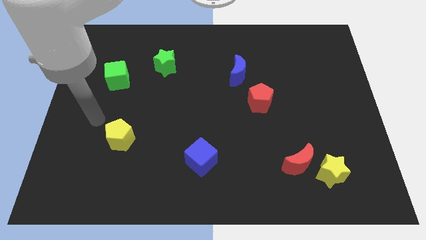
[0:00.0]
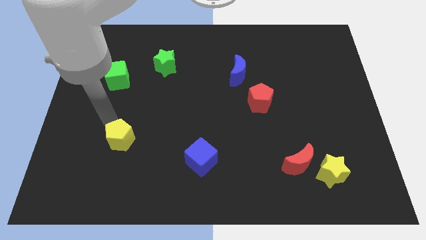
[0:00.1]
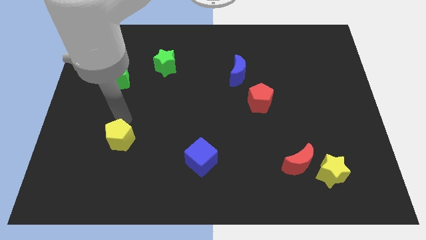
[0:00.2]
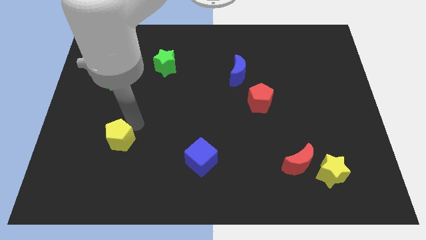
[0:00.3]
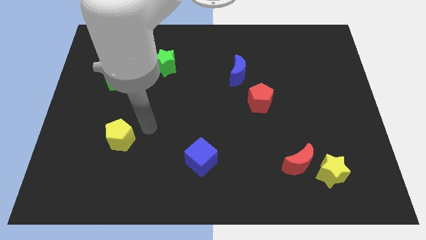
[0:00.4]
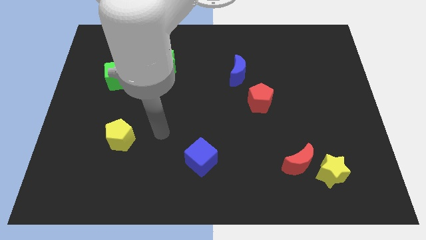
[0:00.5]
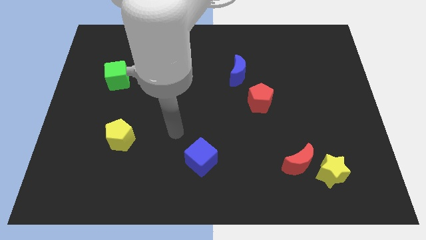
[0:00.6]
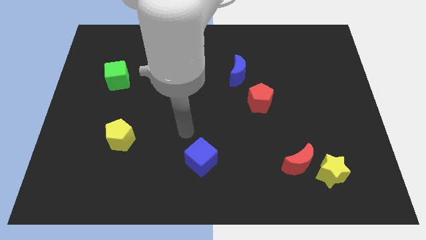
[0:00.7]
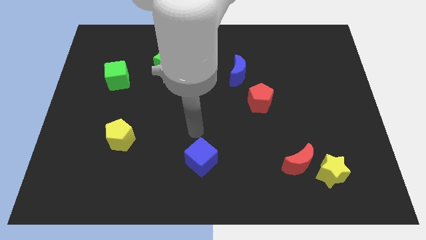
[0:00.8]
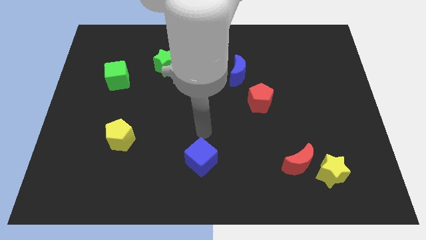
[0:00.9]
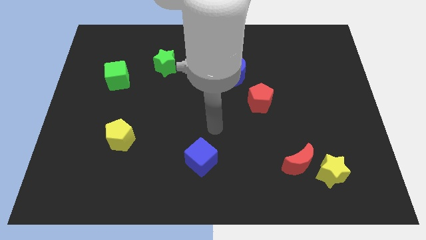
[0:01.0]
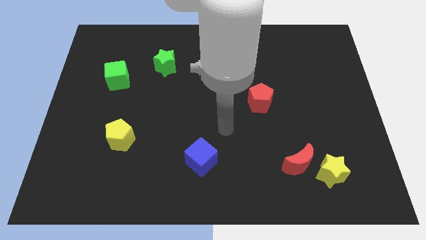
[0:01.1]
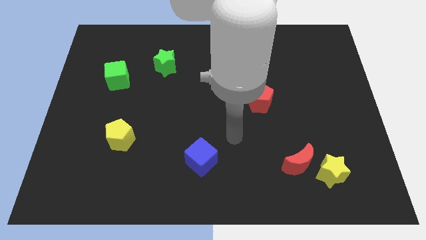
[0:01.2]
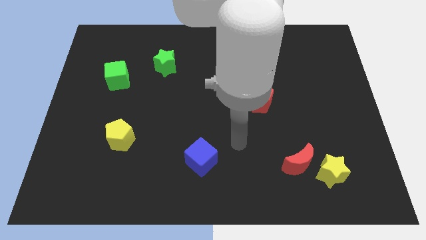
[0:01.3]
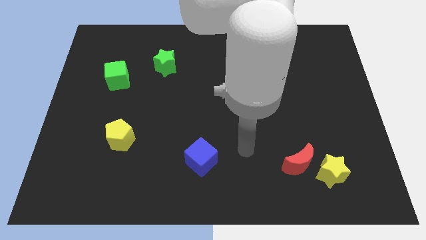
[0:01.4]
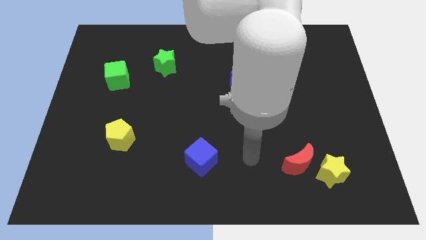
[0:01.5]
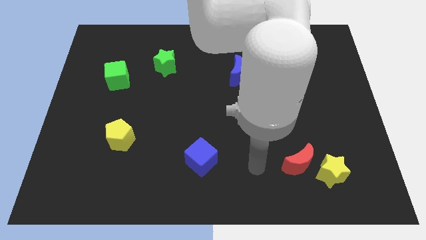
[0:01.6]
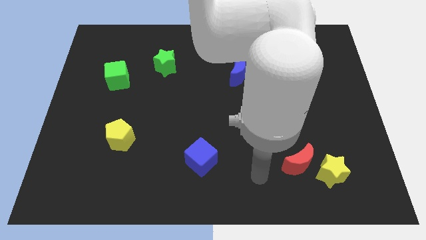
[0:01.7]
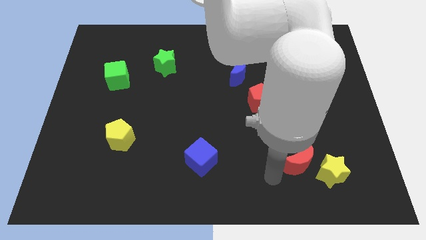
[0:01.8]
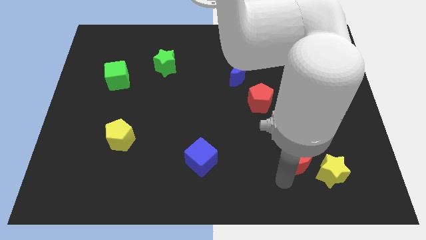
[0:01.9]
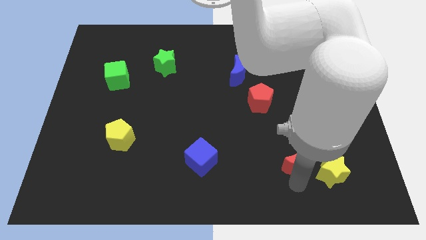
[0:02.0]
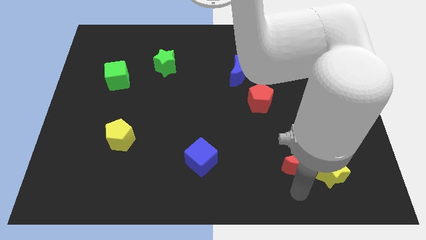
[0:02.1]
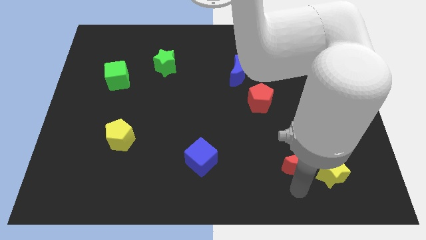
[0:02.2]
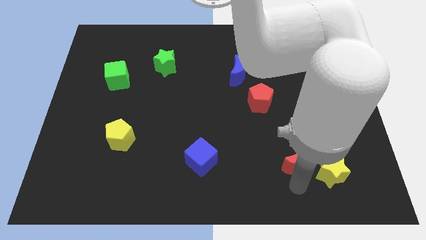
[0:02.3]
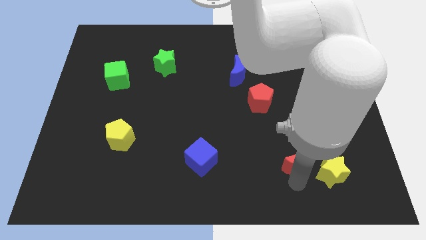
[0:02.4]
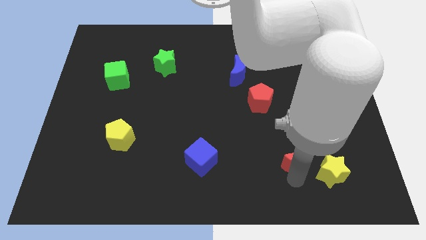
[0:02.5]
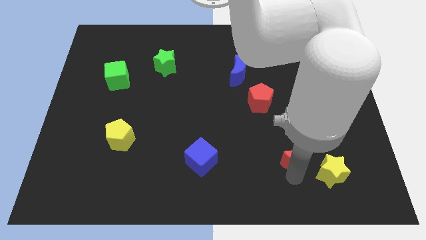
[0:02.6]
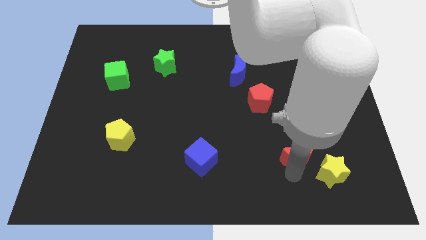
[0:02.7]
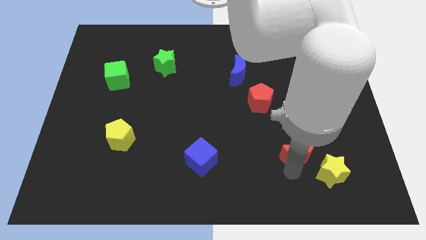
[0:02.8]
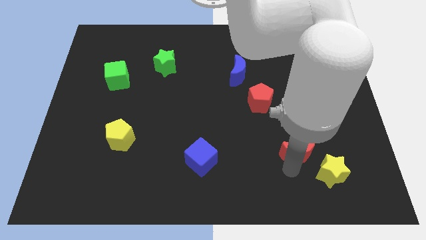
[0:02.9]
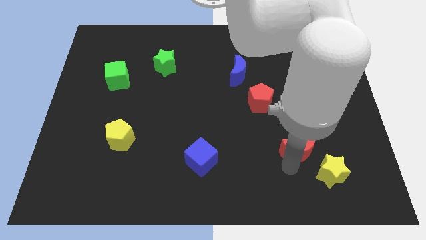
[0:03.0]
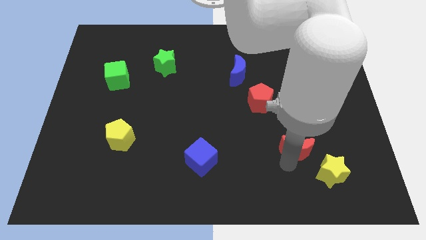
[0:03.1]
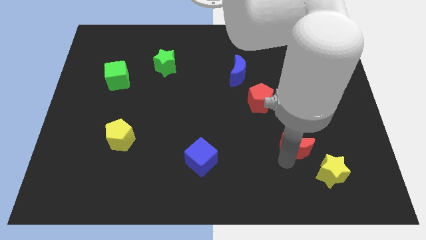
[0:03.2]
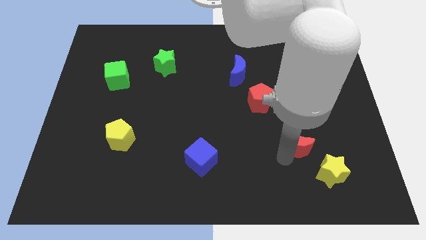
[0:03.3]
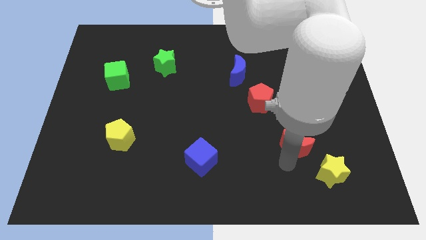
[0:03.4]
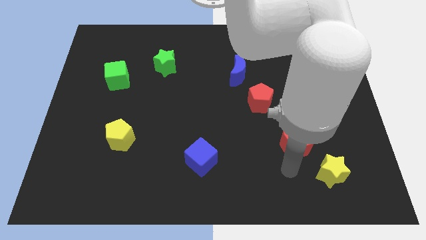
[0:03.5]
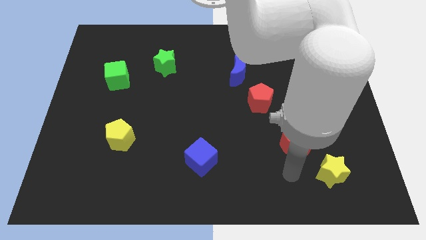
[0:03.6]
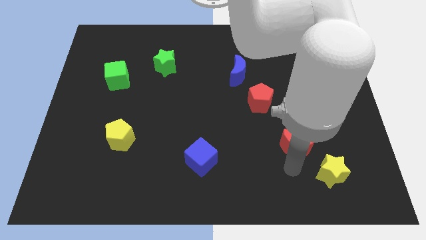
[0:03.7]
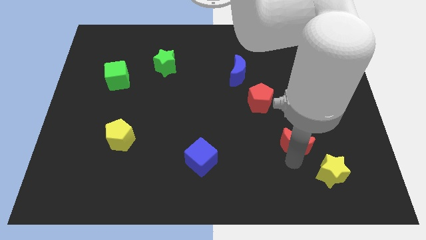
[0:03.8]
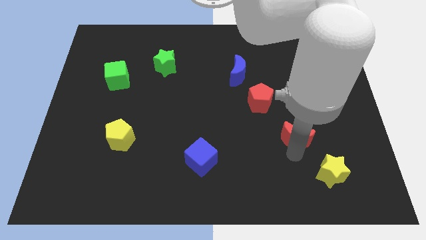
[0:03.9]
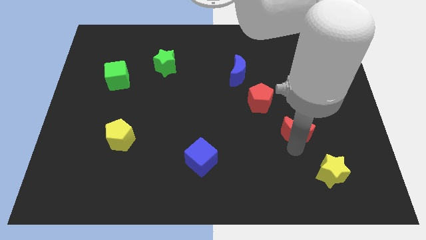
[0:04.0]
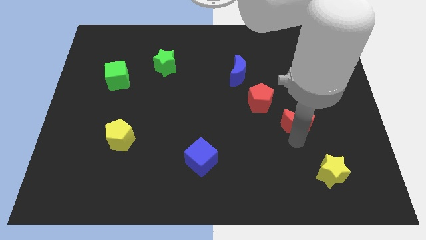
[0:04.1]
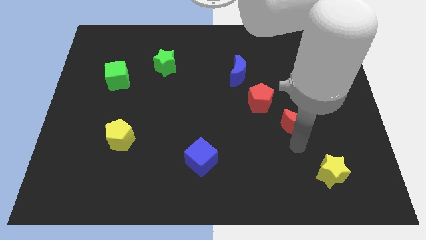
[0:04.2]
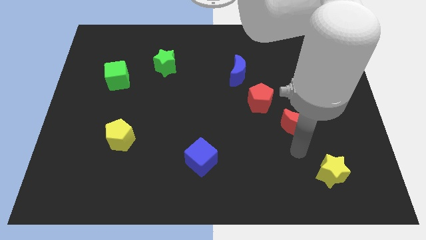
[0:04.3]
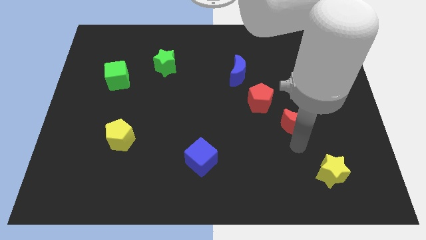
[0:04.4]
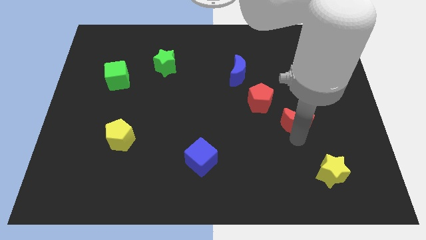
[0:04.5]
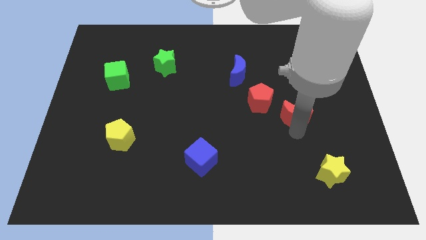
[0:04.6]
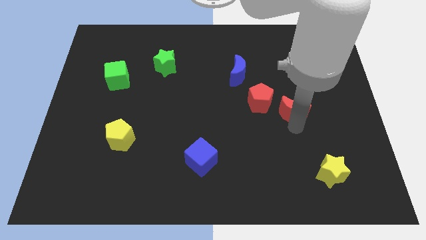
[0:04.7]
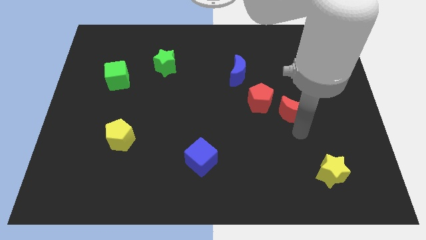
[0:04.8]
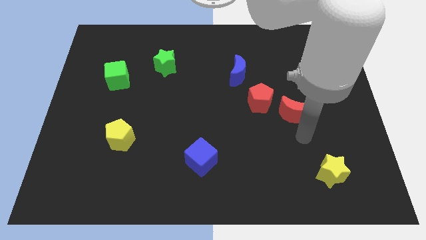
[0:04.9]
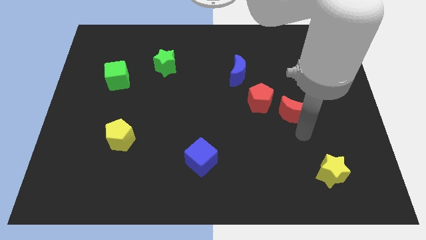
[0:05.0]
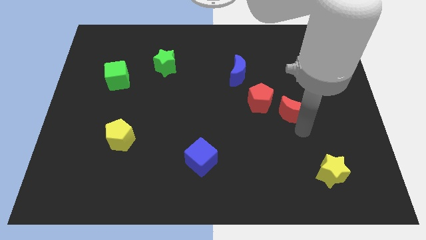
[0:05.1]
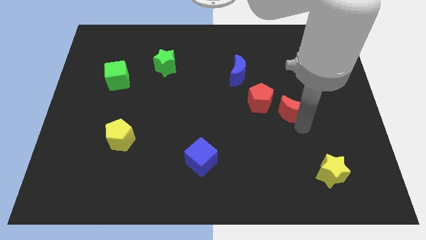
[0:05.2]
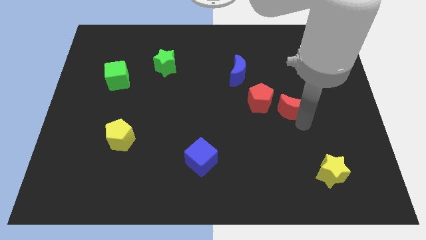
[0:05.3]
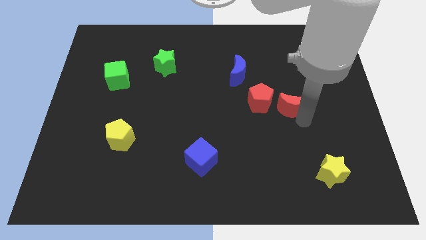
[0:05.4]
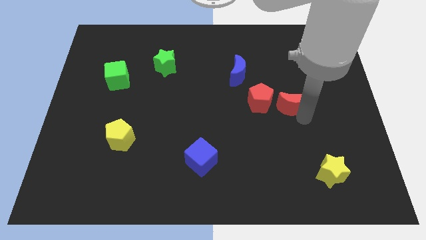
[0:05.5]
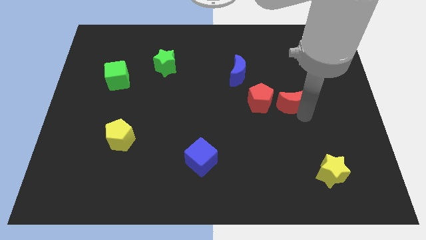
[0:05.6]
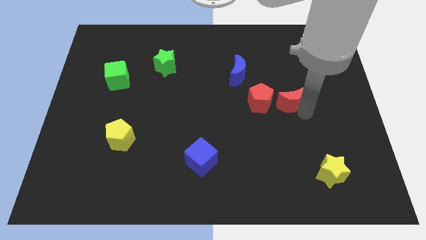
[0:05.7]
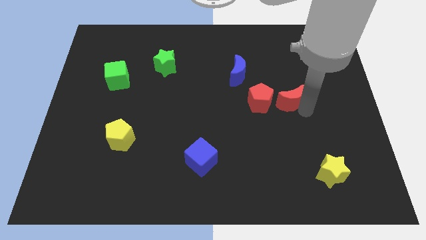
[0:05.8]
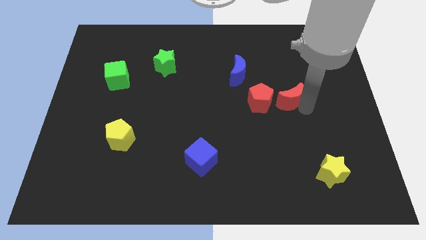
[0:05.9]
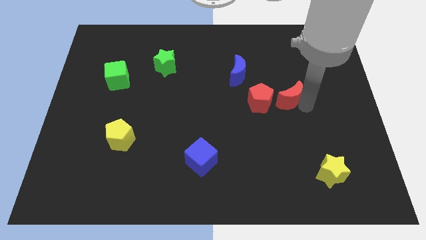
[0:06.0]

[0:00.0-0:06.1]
push the red moon to the top right of the red pentagon

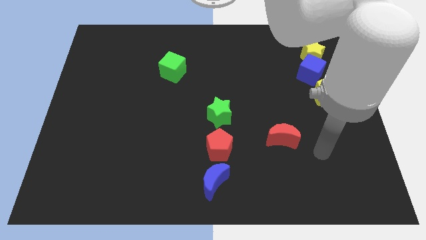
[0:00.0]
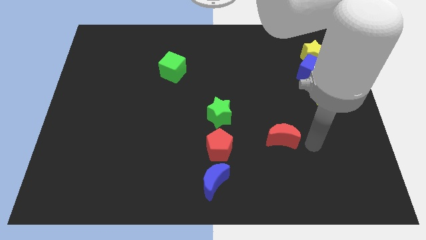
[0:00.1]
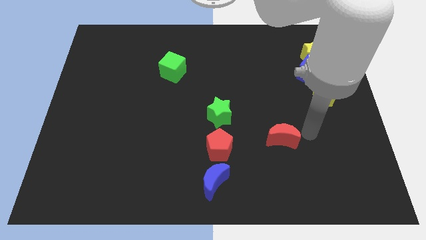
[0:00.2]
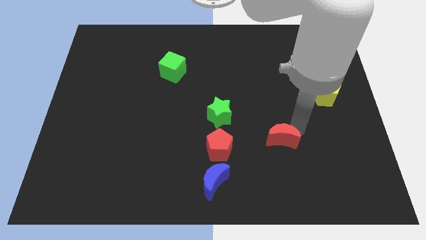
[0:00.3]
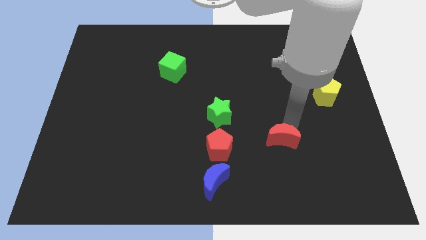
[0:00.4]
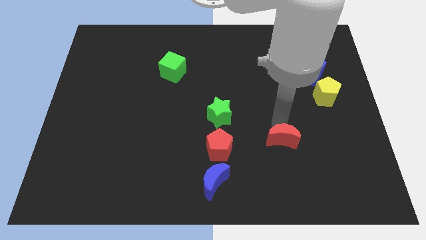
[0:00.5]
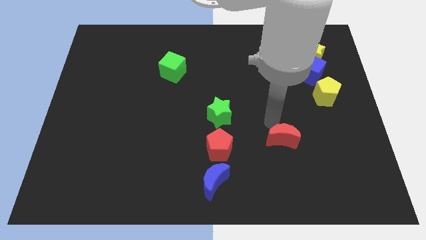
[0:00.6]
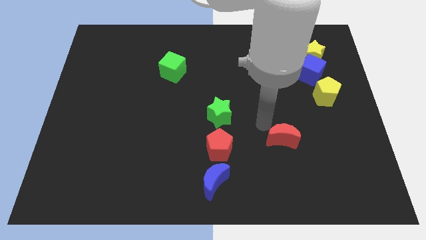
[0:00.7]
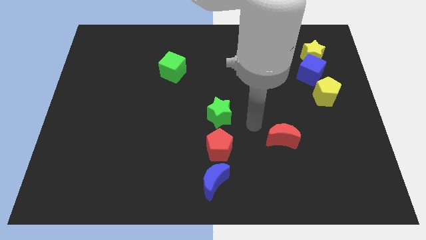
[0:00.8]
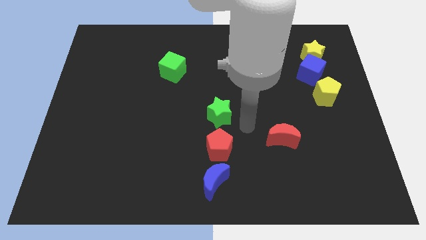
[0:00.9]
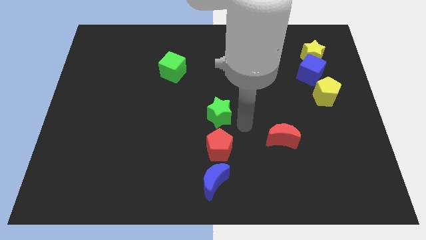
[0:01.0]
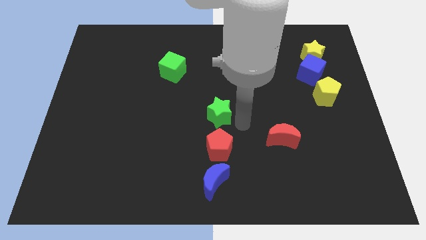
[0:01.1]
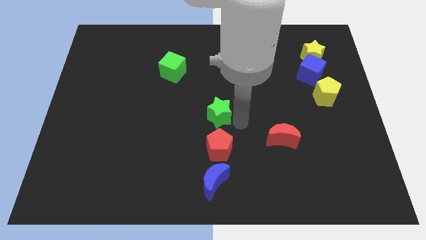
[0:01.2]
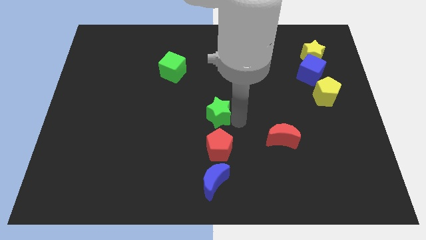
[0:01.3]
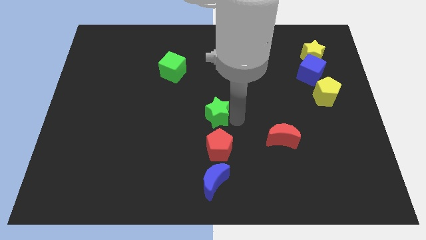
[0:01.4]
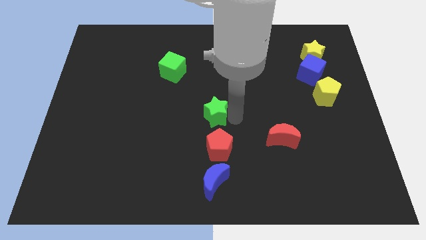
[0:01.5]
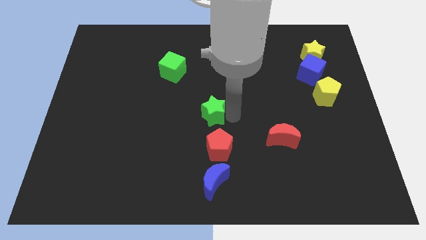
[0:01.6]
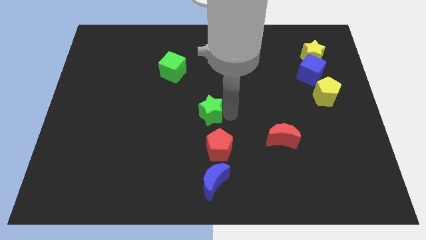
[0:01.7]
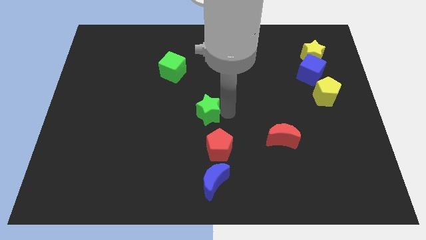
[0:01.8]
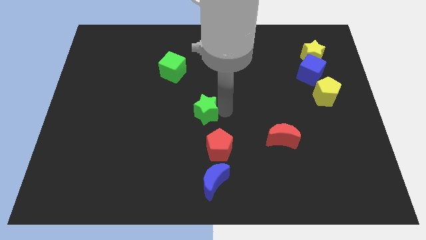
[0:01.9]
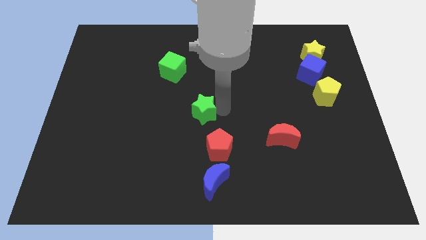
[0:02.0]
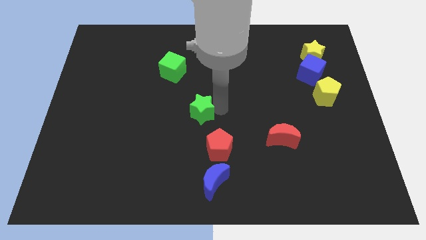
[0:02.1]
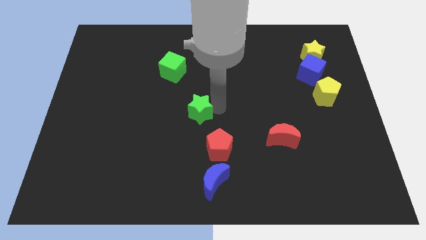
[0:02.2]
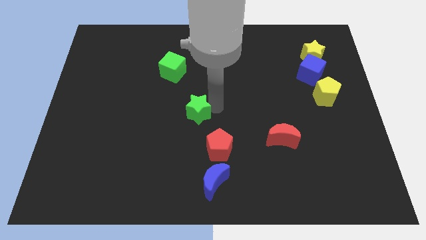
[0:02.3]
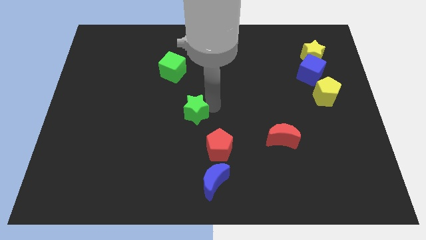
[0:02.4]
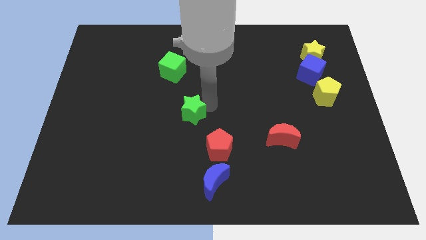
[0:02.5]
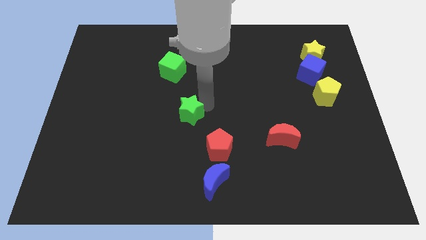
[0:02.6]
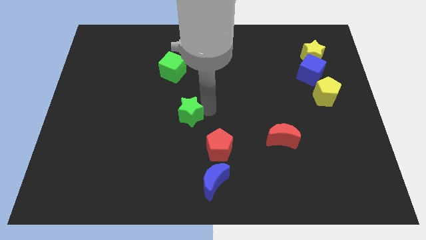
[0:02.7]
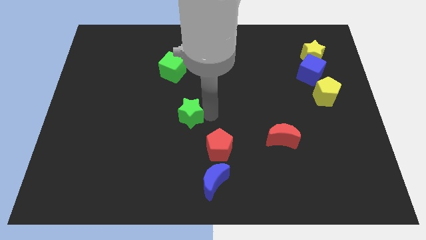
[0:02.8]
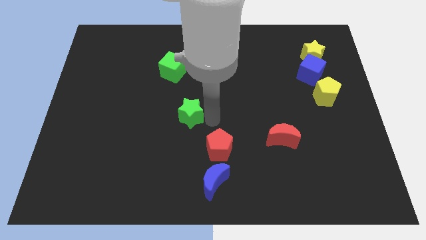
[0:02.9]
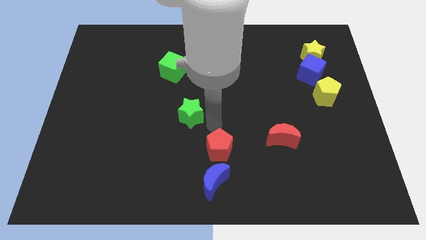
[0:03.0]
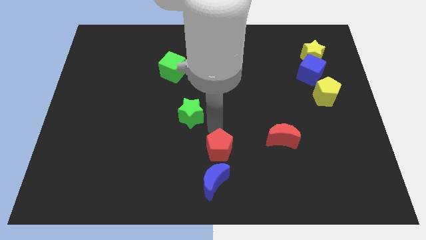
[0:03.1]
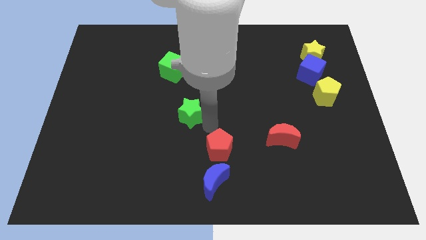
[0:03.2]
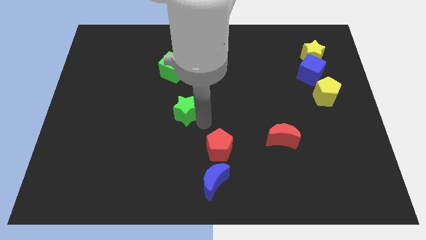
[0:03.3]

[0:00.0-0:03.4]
slide the green star to the bottom side of the green cube
